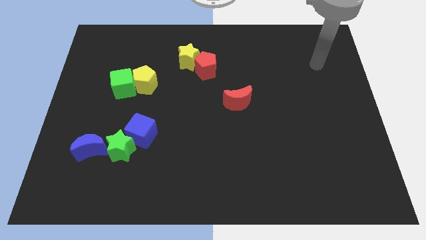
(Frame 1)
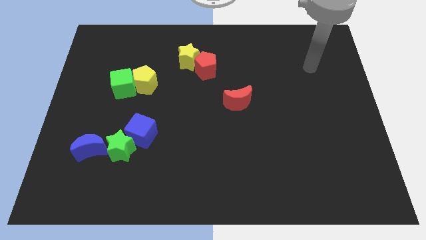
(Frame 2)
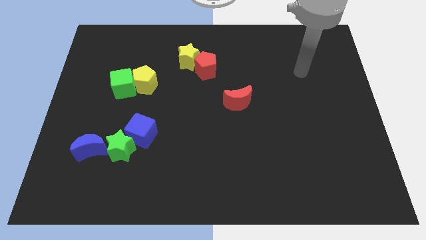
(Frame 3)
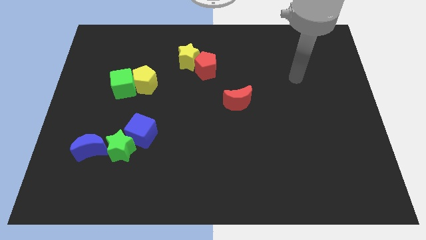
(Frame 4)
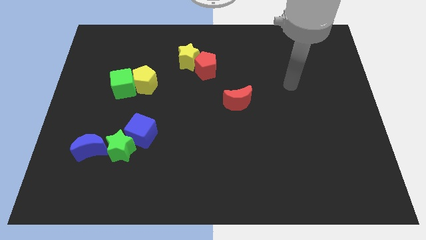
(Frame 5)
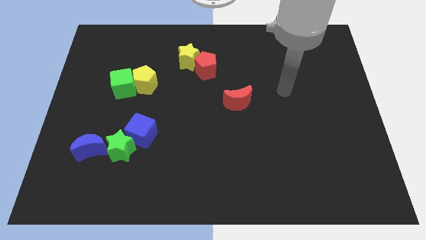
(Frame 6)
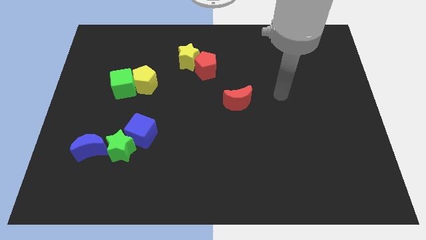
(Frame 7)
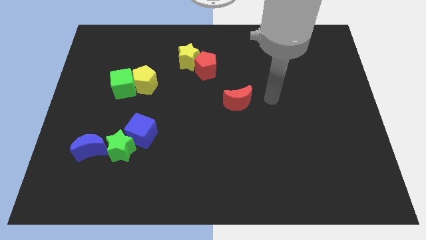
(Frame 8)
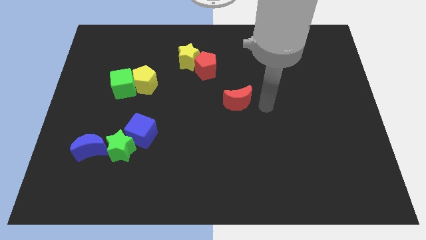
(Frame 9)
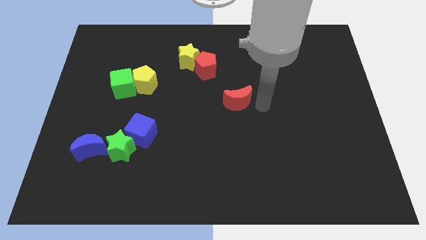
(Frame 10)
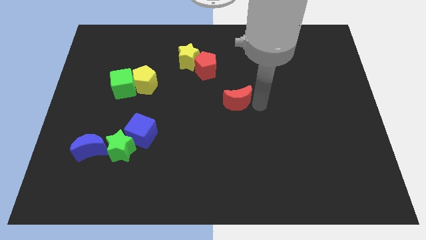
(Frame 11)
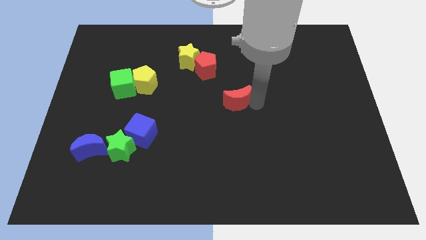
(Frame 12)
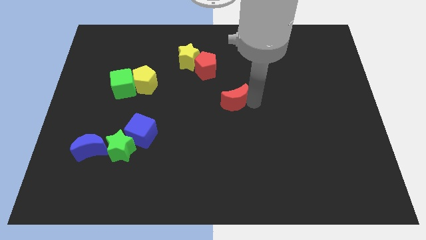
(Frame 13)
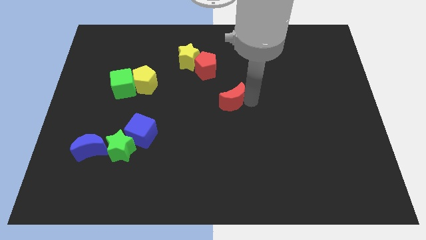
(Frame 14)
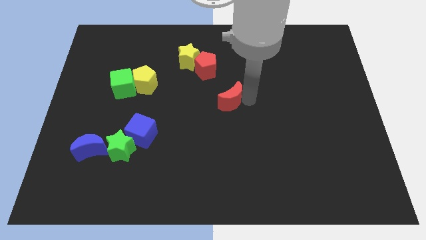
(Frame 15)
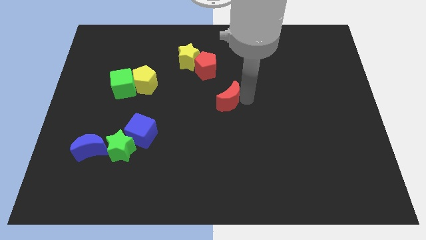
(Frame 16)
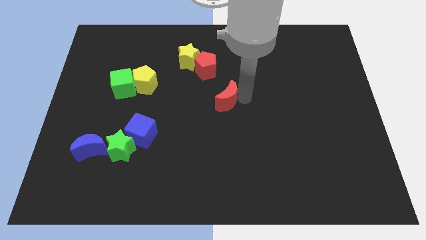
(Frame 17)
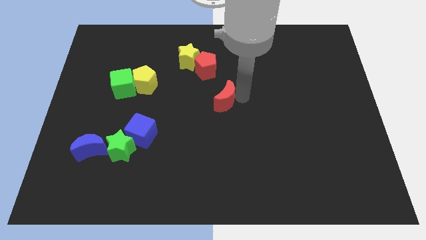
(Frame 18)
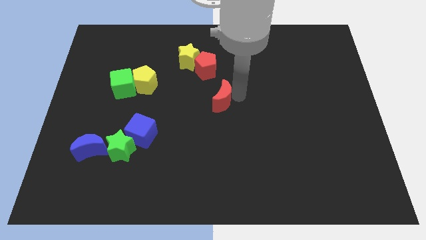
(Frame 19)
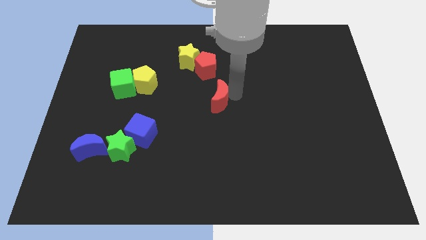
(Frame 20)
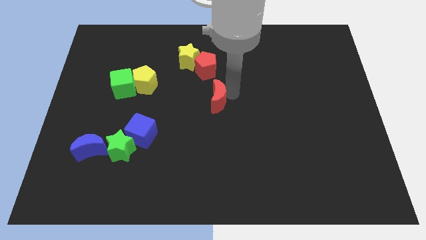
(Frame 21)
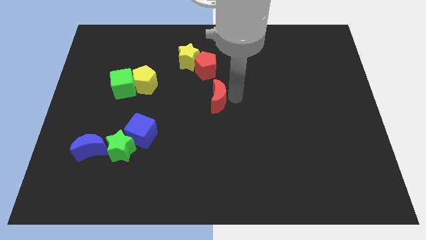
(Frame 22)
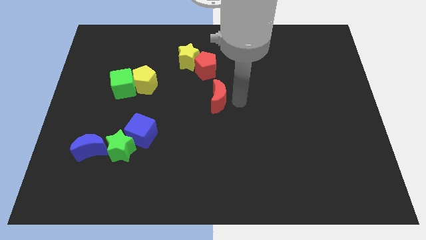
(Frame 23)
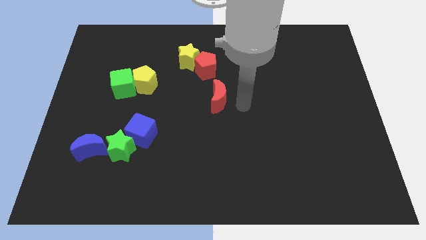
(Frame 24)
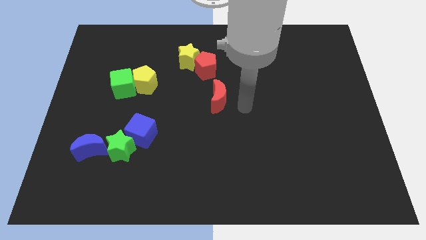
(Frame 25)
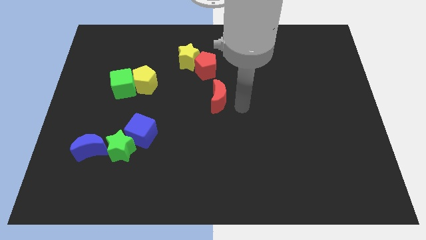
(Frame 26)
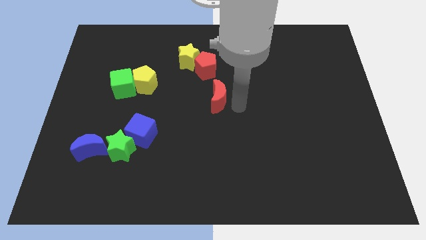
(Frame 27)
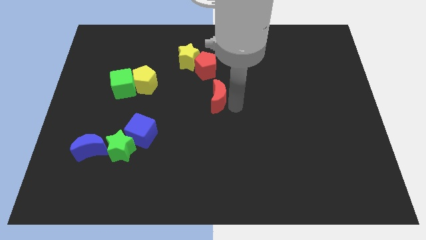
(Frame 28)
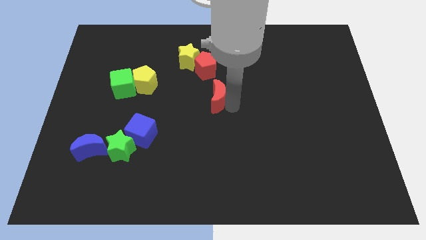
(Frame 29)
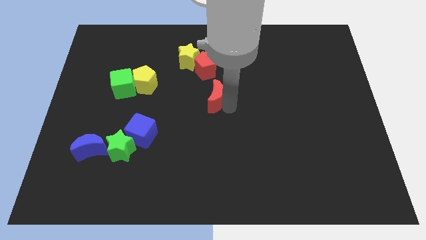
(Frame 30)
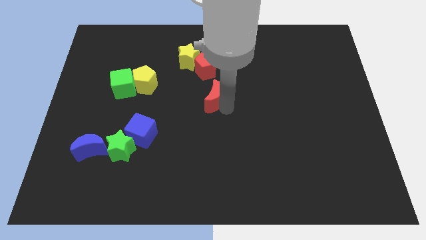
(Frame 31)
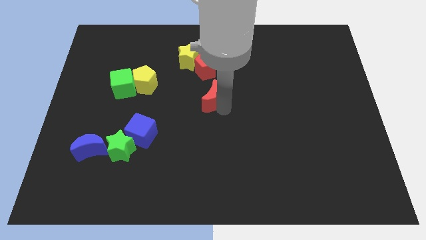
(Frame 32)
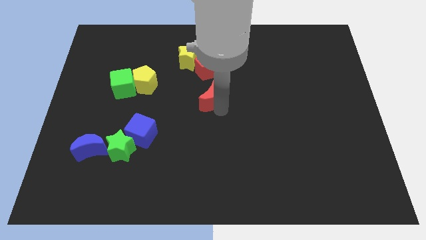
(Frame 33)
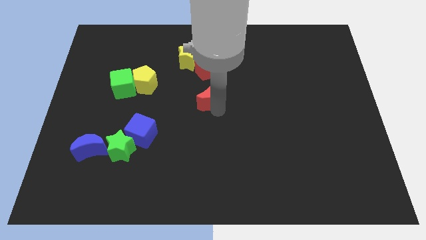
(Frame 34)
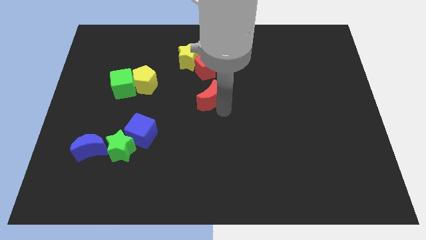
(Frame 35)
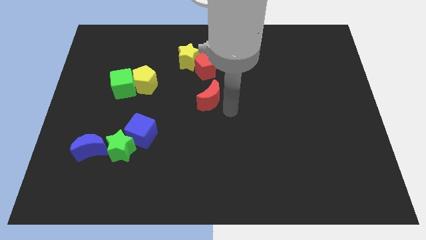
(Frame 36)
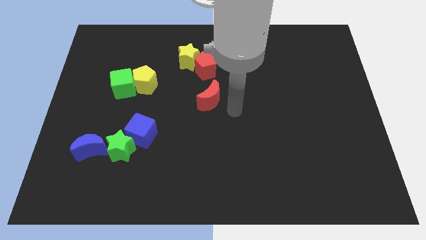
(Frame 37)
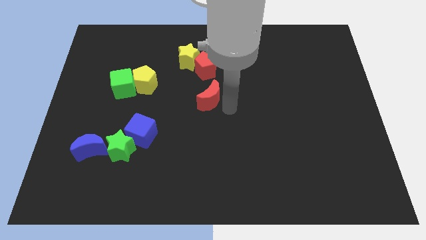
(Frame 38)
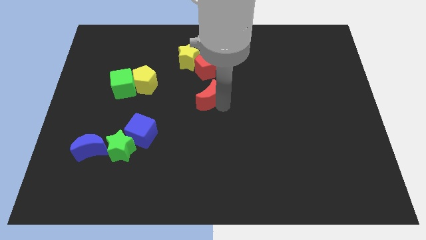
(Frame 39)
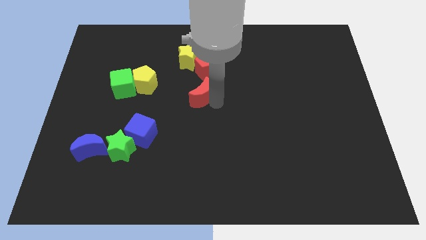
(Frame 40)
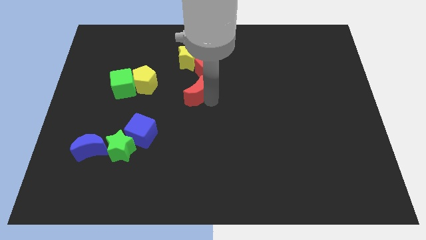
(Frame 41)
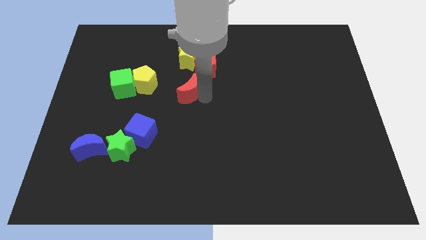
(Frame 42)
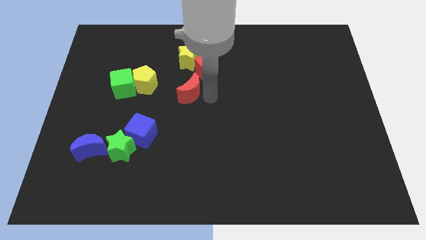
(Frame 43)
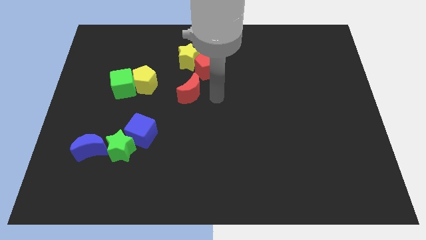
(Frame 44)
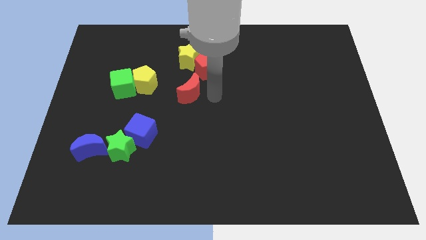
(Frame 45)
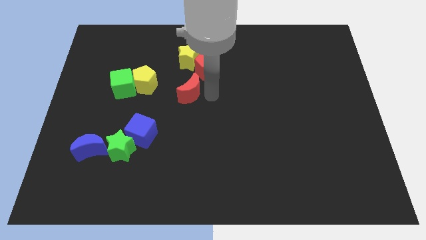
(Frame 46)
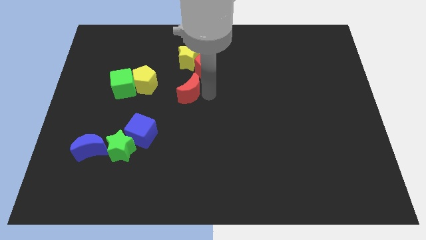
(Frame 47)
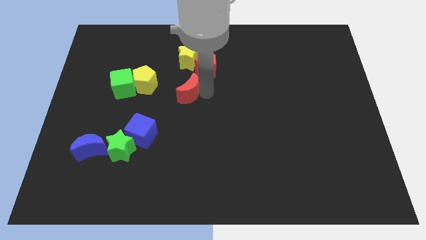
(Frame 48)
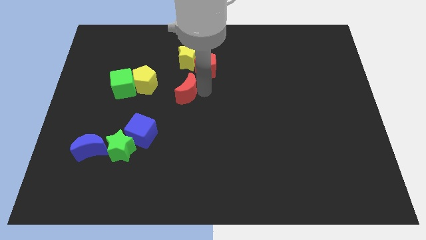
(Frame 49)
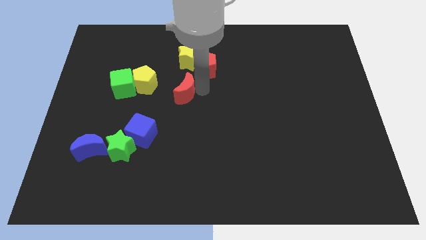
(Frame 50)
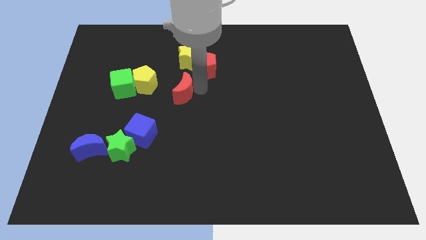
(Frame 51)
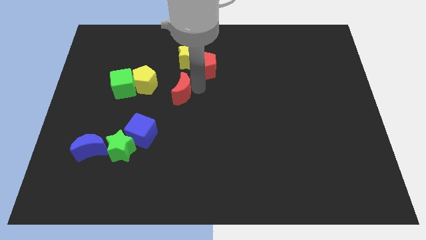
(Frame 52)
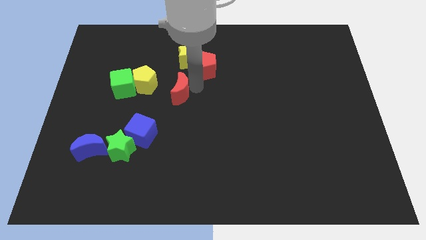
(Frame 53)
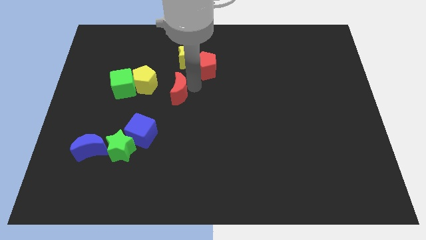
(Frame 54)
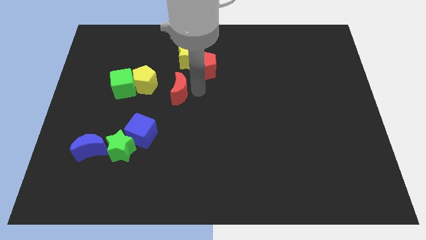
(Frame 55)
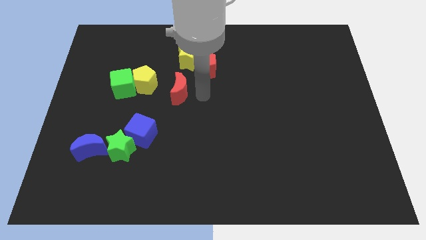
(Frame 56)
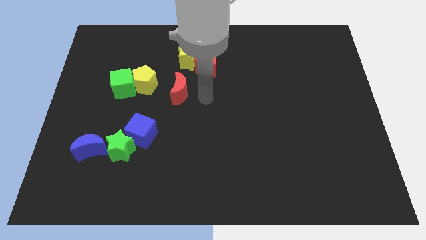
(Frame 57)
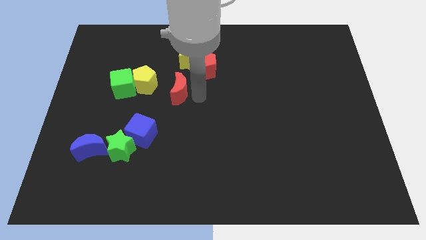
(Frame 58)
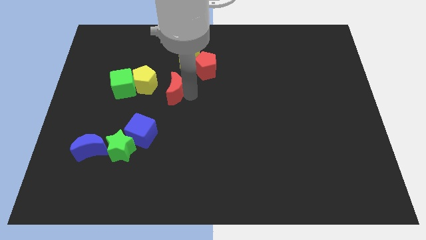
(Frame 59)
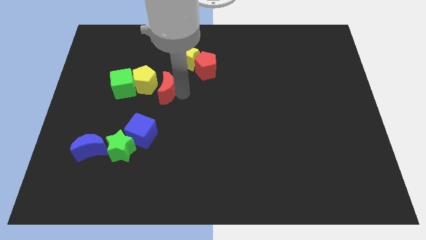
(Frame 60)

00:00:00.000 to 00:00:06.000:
slide the red moon to the yellow pentagon
